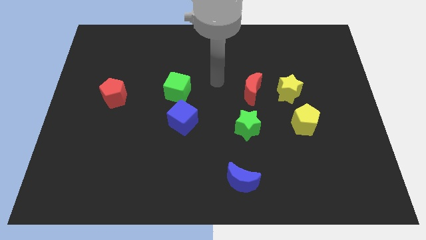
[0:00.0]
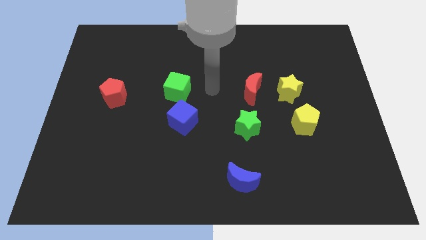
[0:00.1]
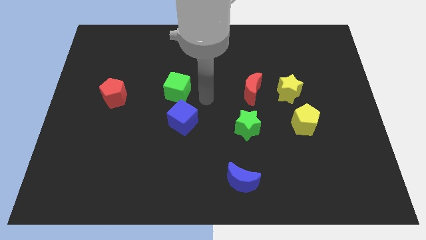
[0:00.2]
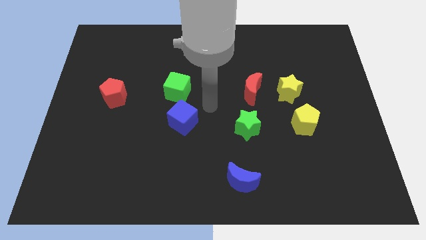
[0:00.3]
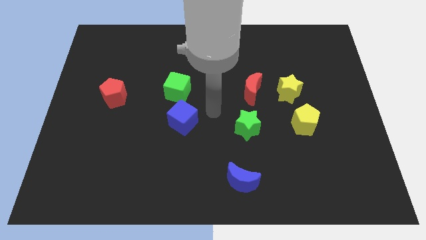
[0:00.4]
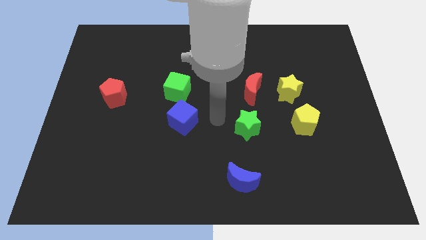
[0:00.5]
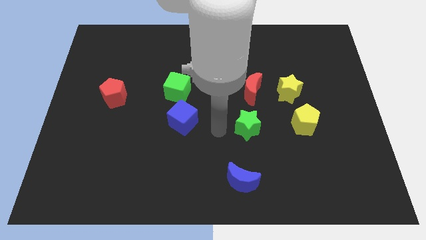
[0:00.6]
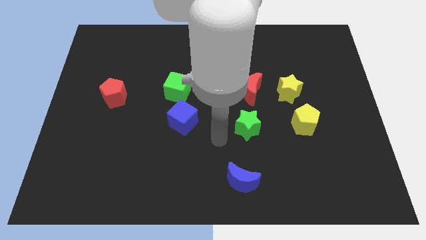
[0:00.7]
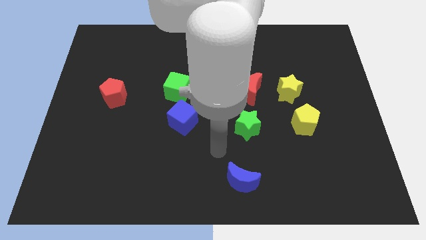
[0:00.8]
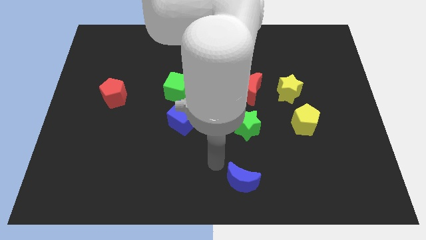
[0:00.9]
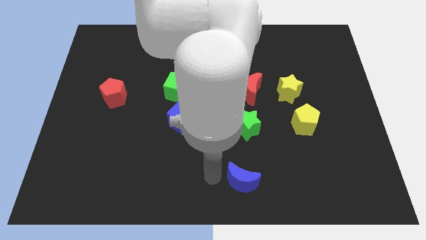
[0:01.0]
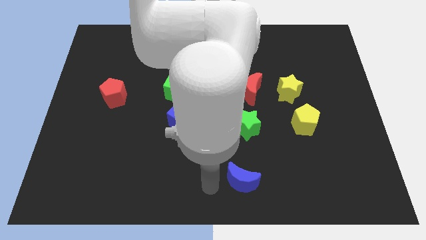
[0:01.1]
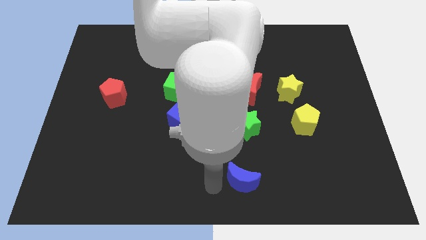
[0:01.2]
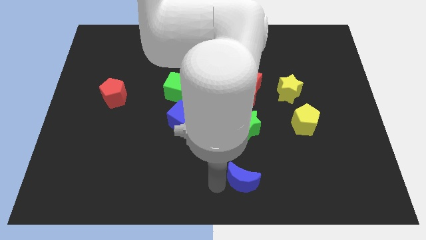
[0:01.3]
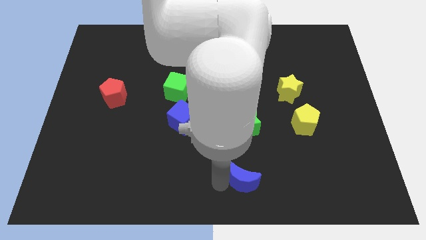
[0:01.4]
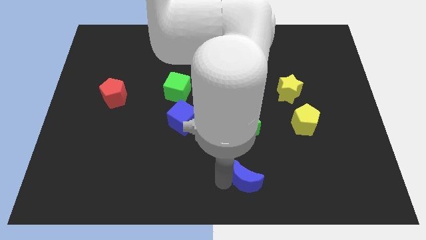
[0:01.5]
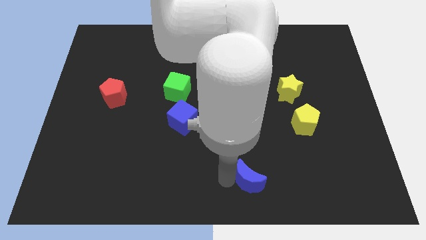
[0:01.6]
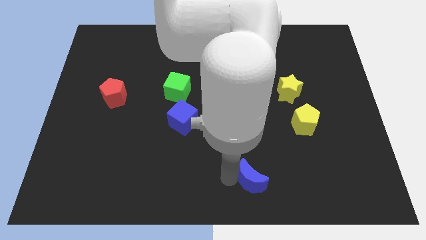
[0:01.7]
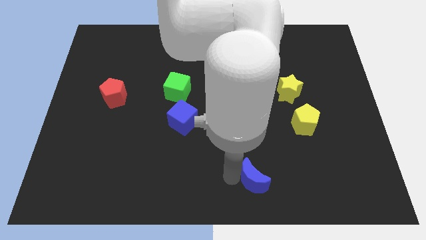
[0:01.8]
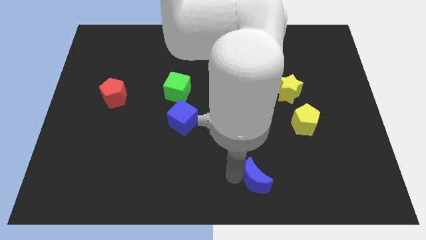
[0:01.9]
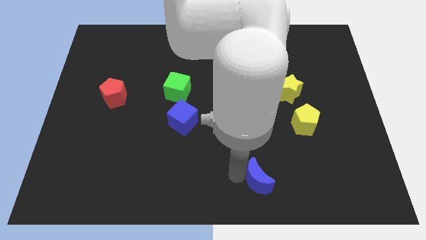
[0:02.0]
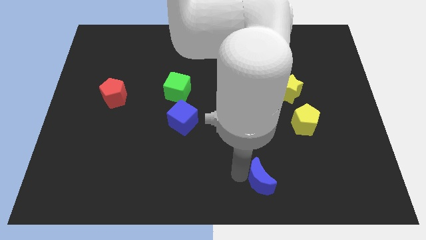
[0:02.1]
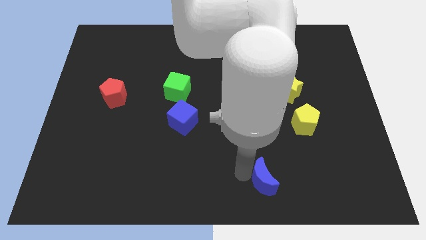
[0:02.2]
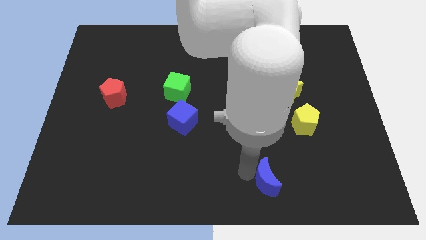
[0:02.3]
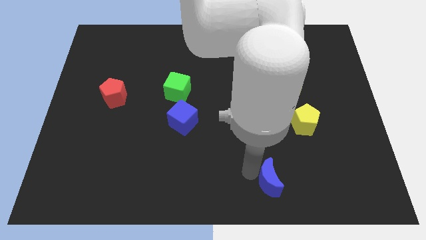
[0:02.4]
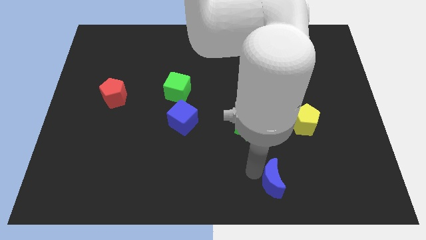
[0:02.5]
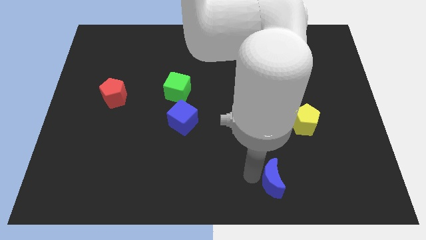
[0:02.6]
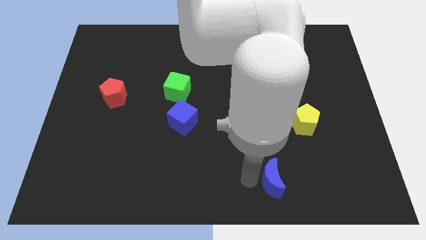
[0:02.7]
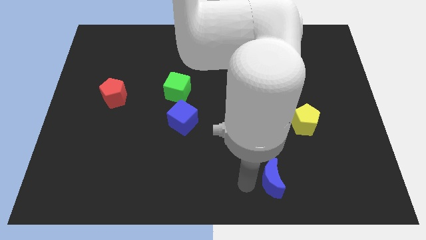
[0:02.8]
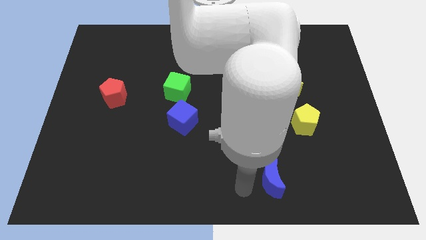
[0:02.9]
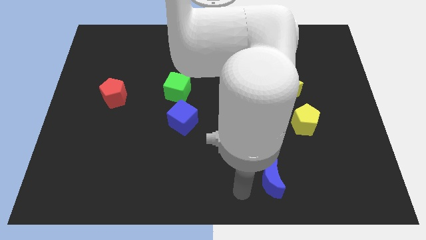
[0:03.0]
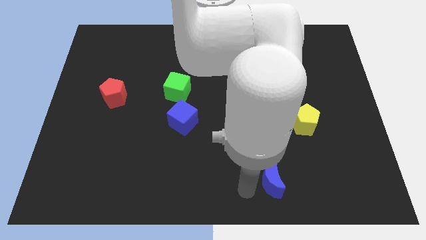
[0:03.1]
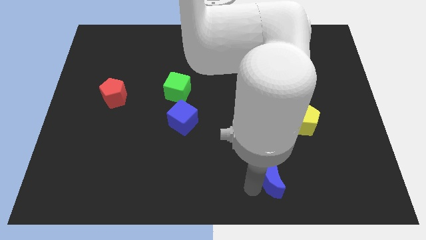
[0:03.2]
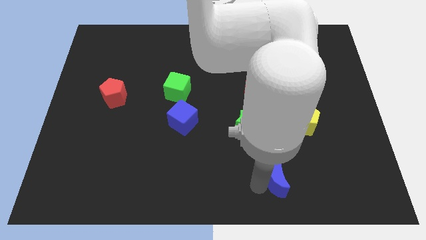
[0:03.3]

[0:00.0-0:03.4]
slightly move the blue moon right

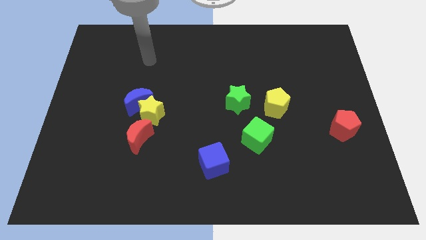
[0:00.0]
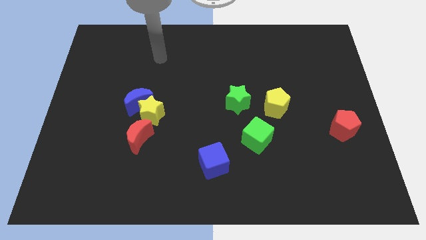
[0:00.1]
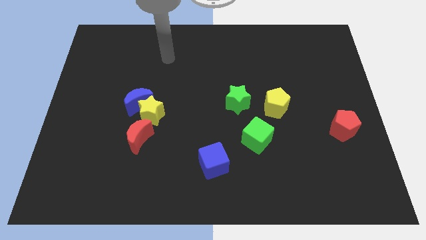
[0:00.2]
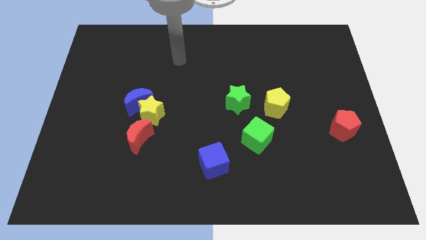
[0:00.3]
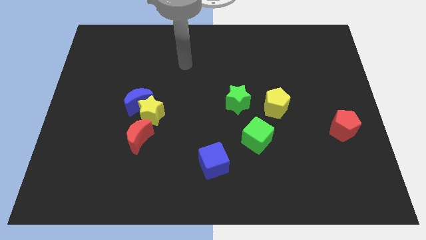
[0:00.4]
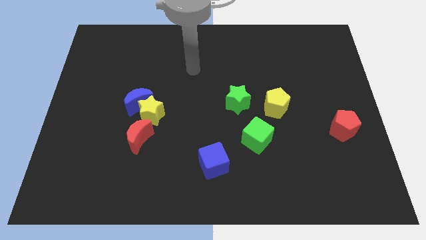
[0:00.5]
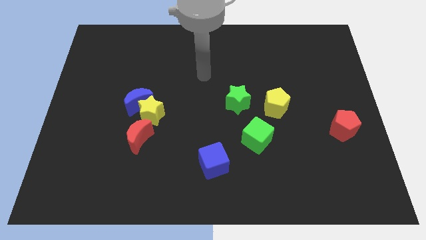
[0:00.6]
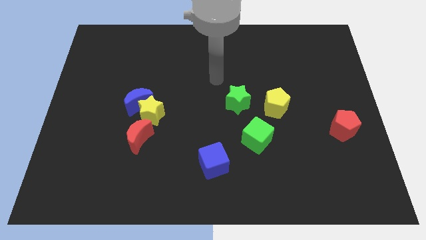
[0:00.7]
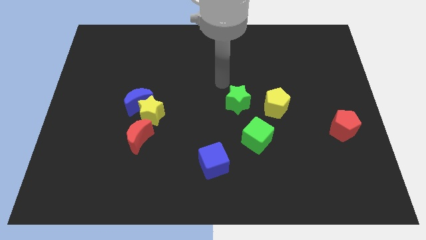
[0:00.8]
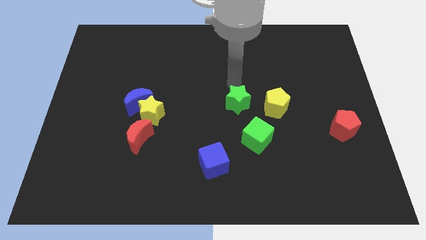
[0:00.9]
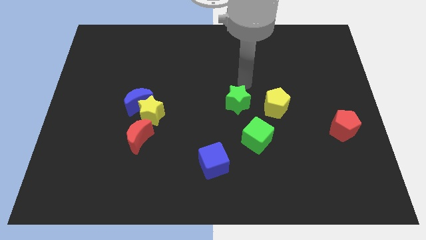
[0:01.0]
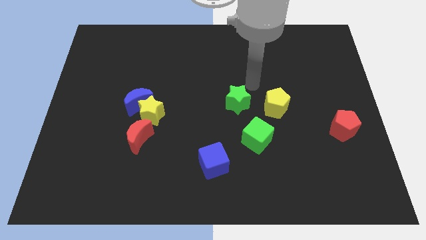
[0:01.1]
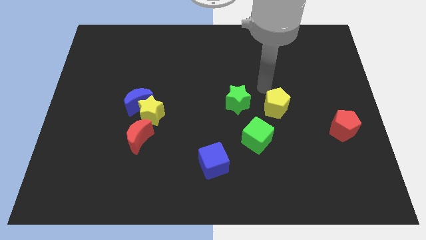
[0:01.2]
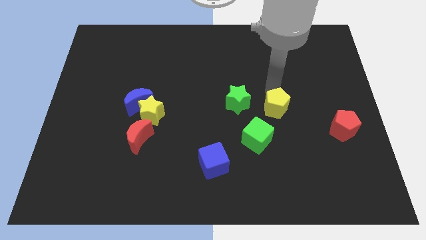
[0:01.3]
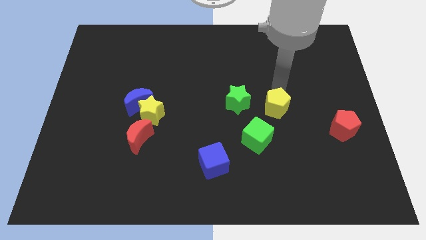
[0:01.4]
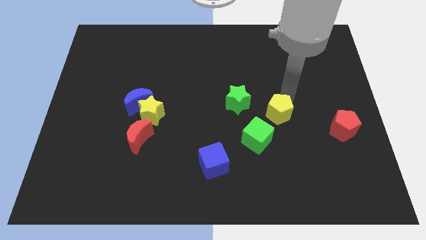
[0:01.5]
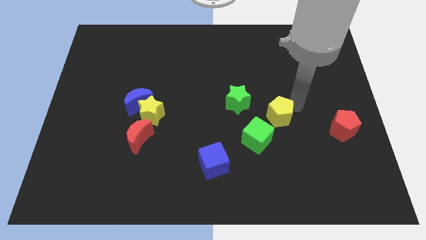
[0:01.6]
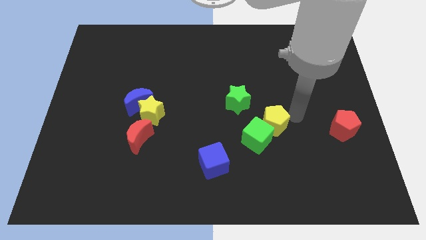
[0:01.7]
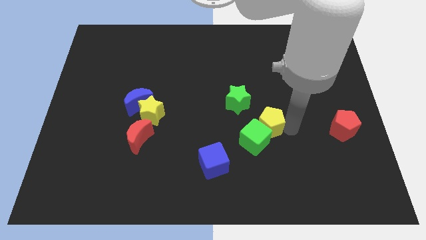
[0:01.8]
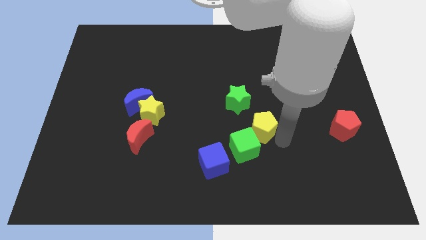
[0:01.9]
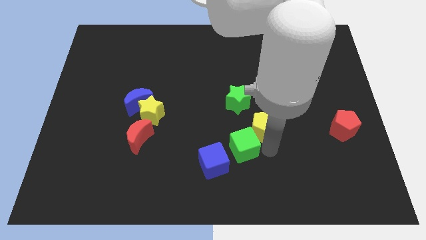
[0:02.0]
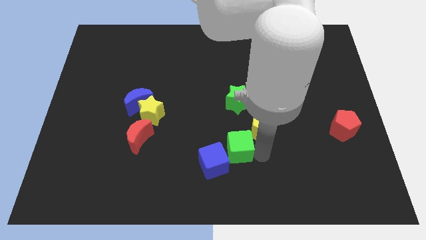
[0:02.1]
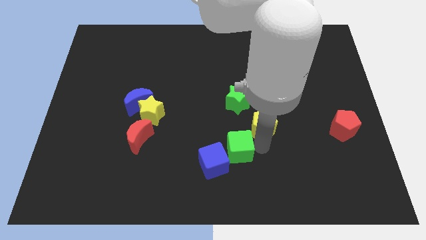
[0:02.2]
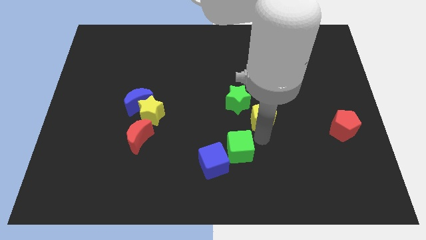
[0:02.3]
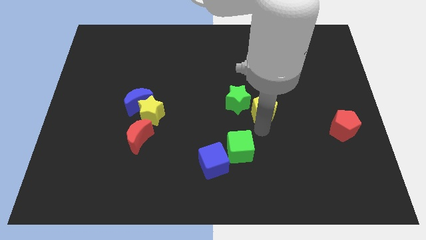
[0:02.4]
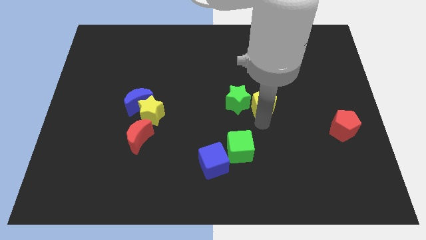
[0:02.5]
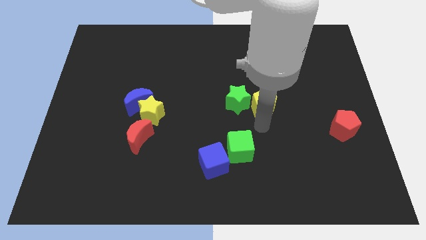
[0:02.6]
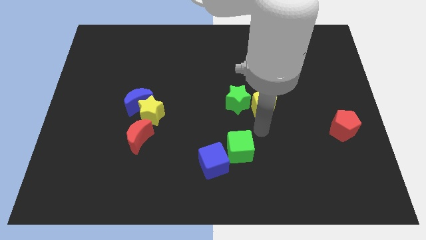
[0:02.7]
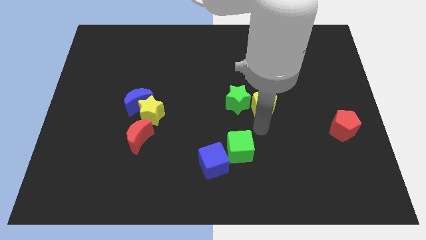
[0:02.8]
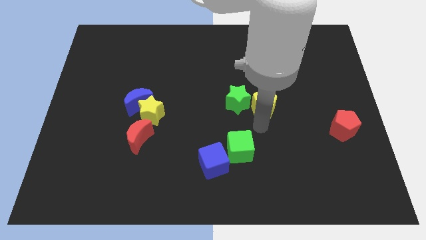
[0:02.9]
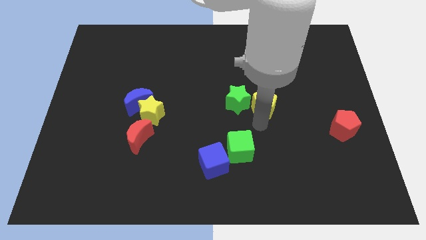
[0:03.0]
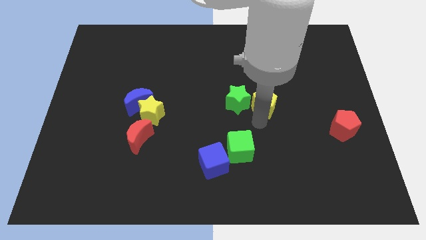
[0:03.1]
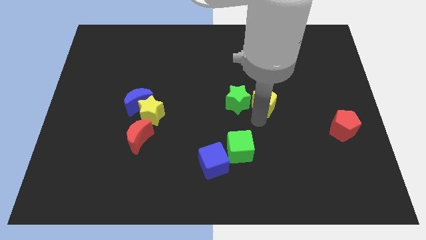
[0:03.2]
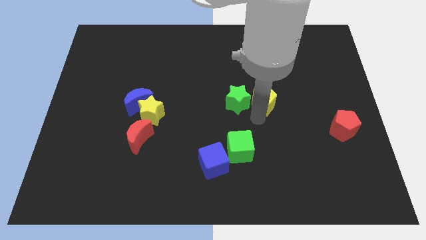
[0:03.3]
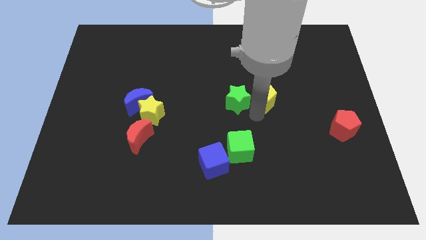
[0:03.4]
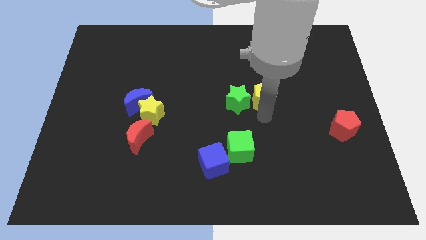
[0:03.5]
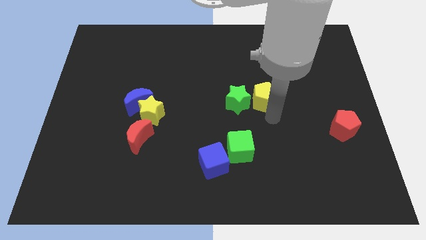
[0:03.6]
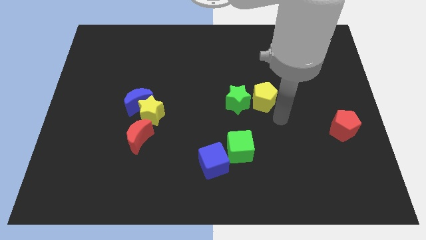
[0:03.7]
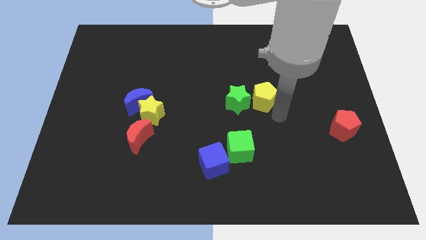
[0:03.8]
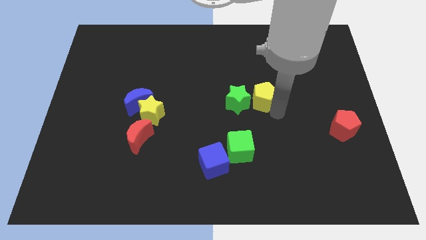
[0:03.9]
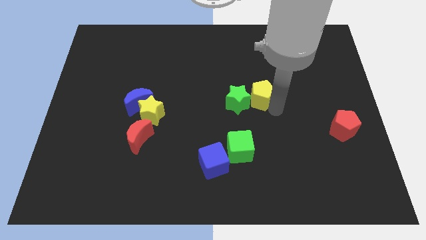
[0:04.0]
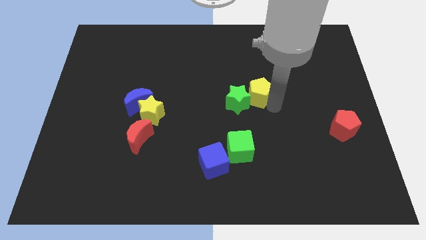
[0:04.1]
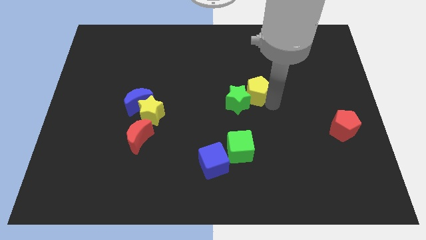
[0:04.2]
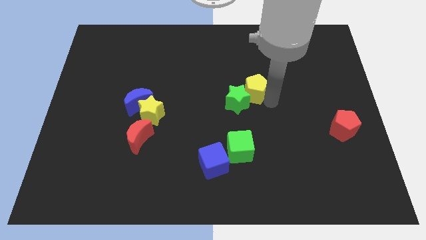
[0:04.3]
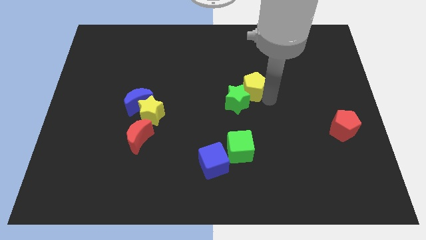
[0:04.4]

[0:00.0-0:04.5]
slightly slide the yellow pentagon upwards and then left
